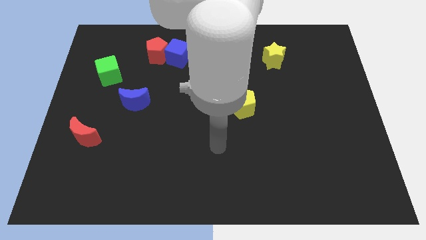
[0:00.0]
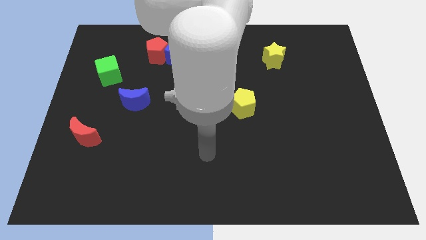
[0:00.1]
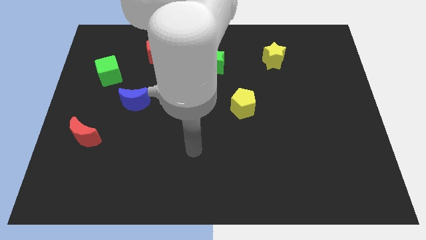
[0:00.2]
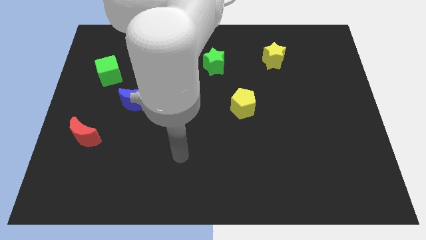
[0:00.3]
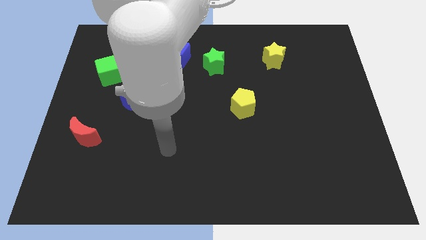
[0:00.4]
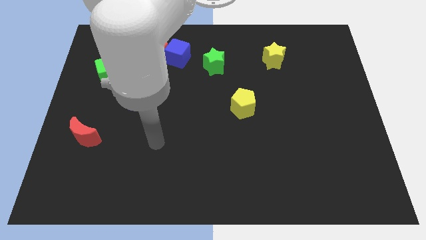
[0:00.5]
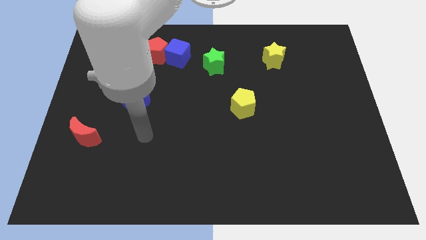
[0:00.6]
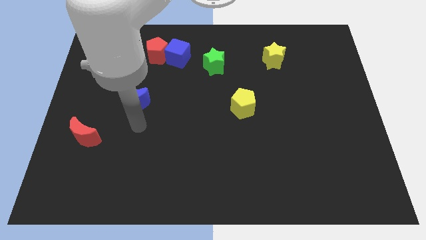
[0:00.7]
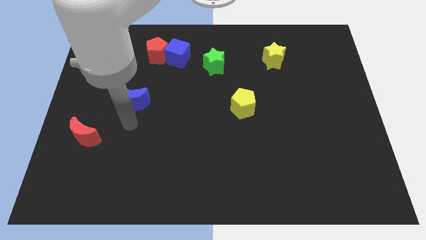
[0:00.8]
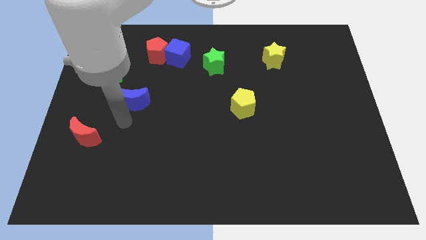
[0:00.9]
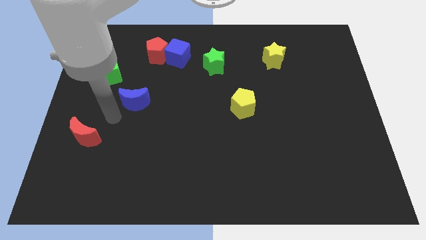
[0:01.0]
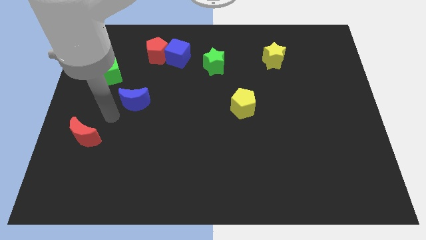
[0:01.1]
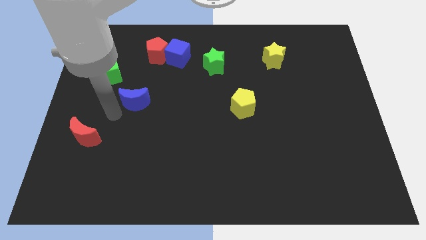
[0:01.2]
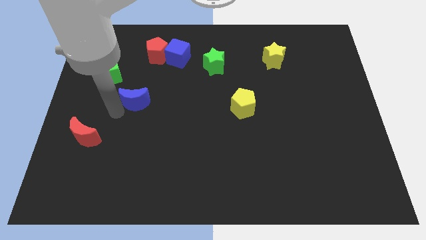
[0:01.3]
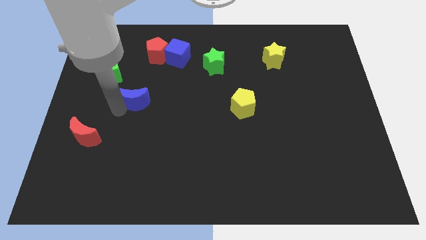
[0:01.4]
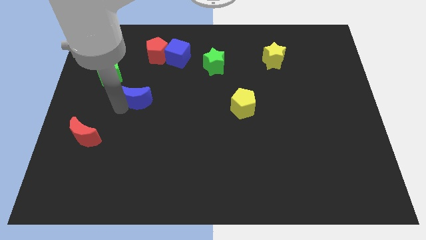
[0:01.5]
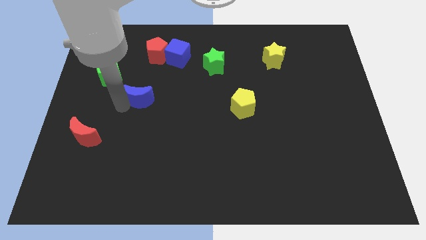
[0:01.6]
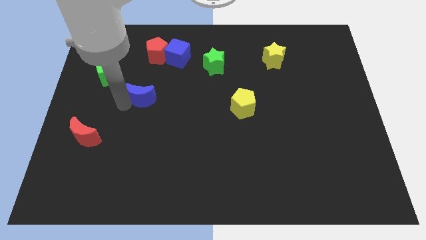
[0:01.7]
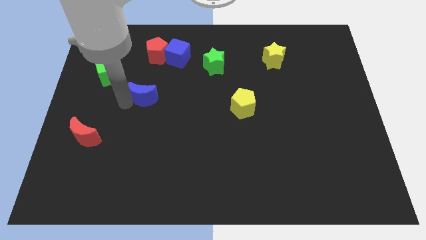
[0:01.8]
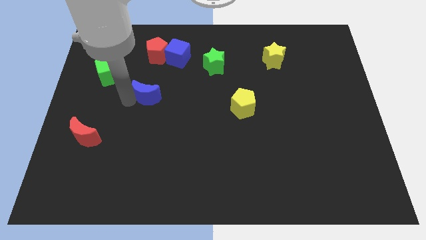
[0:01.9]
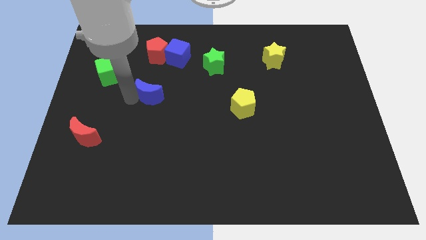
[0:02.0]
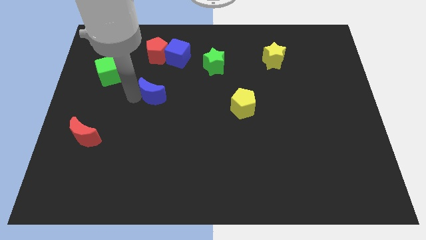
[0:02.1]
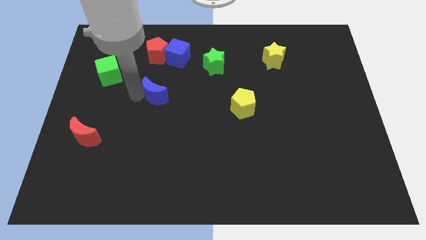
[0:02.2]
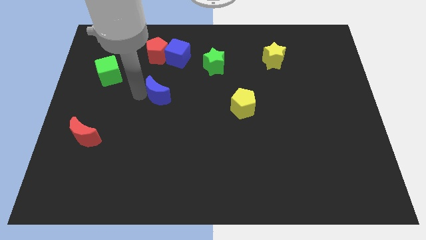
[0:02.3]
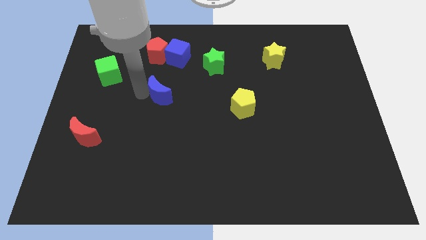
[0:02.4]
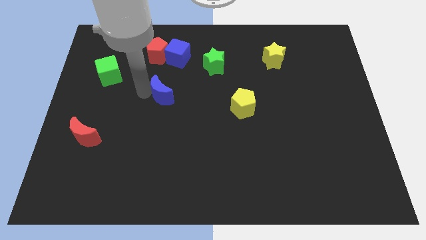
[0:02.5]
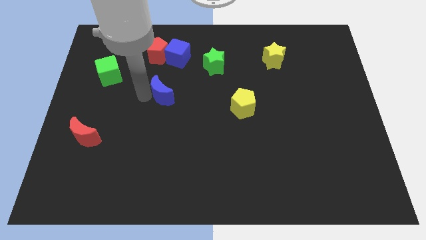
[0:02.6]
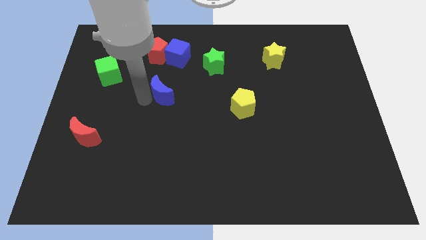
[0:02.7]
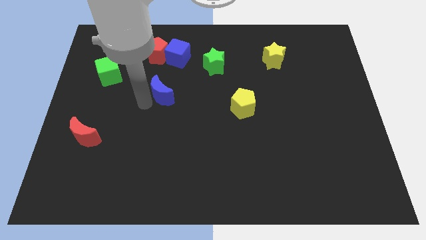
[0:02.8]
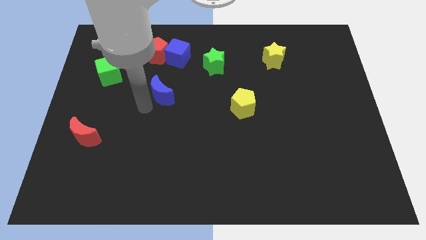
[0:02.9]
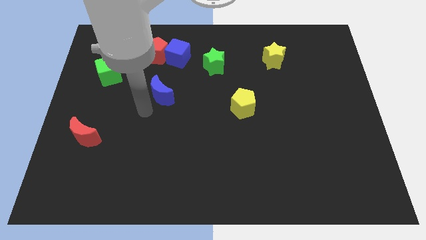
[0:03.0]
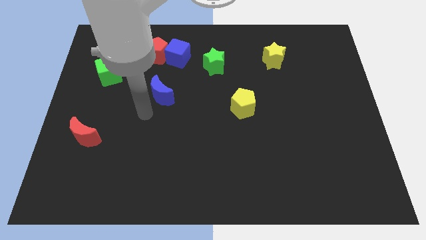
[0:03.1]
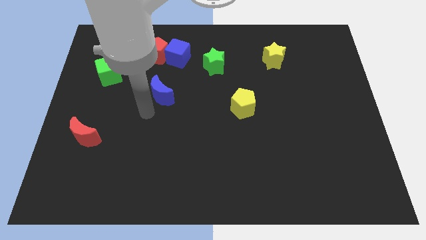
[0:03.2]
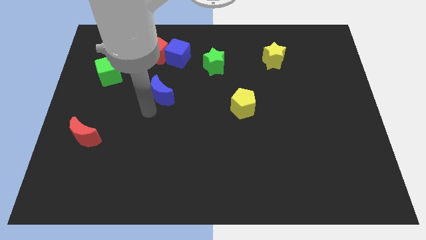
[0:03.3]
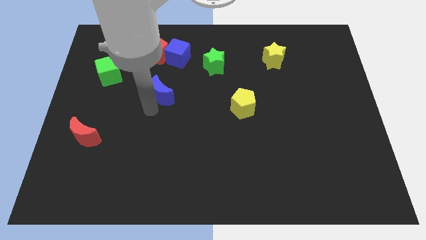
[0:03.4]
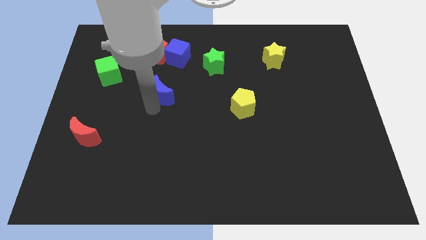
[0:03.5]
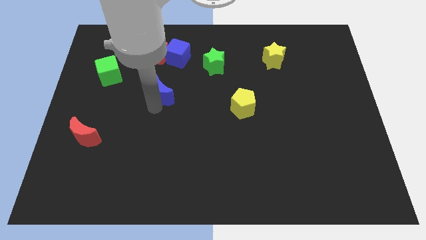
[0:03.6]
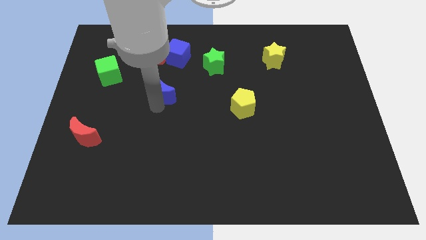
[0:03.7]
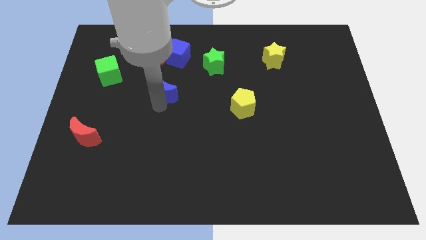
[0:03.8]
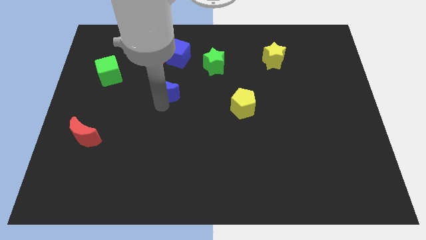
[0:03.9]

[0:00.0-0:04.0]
move the blue moon upwards and then right slightly

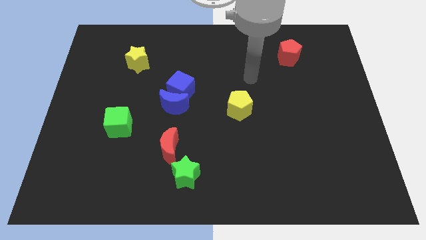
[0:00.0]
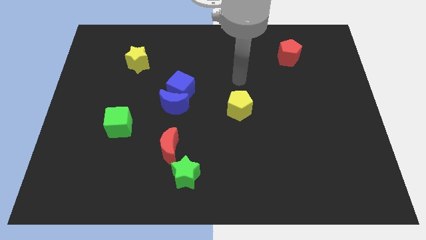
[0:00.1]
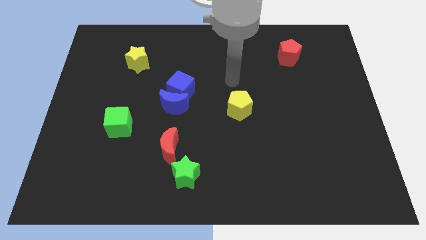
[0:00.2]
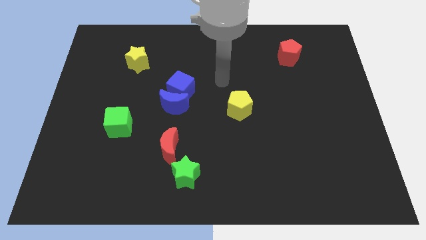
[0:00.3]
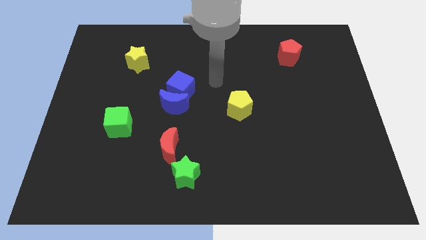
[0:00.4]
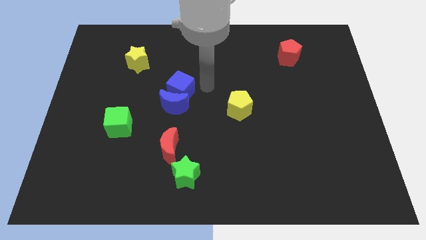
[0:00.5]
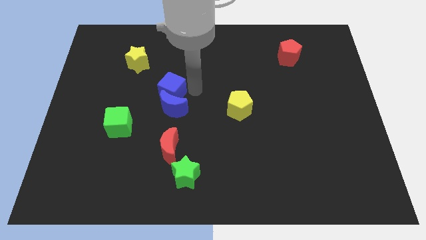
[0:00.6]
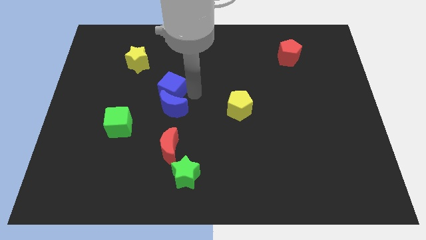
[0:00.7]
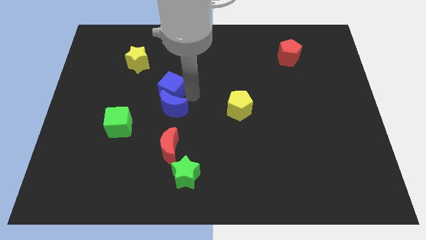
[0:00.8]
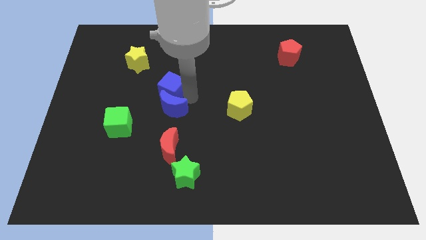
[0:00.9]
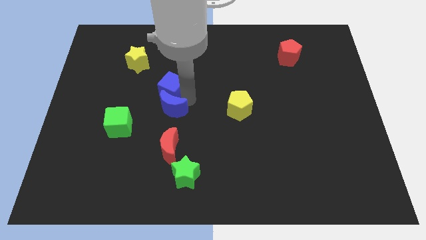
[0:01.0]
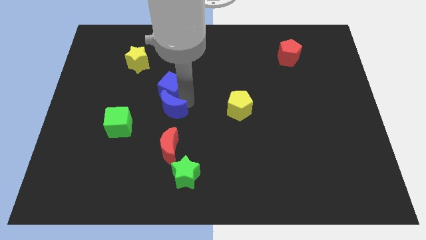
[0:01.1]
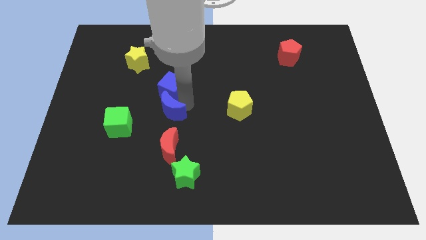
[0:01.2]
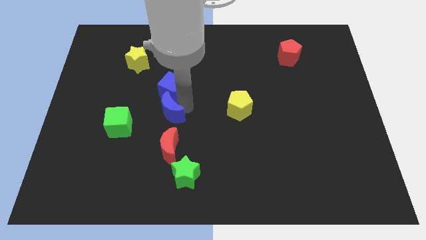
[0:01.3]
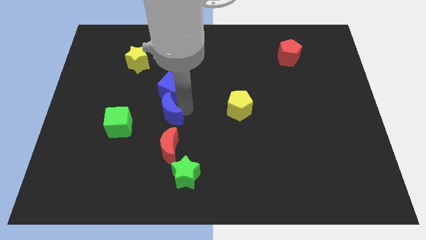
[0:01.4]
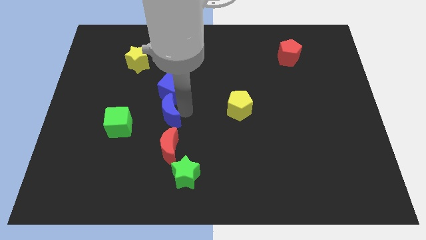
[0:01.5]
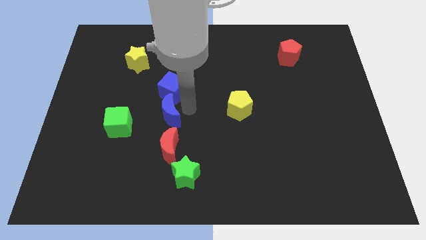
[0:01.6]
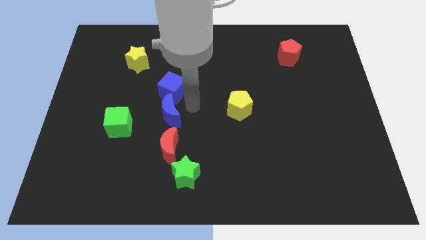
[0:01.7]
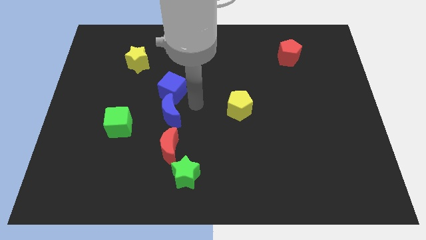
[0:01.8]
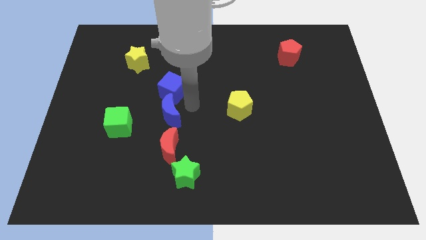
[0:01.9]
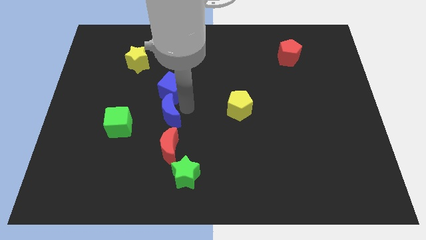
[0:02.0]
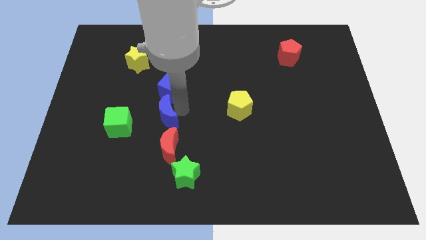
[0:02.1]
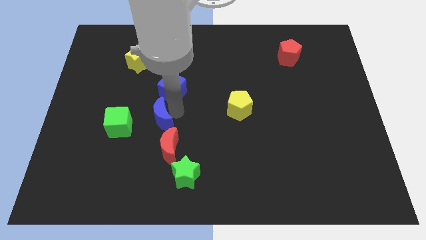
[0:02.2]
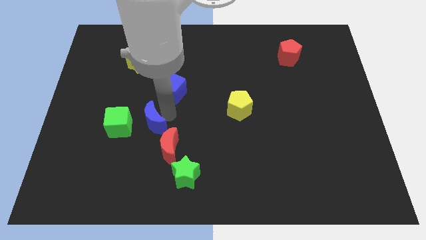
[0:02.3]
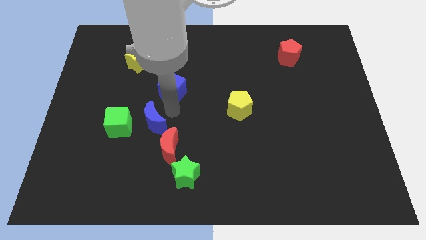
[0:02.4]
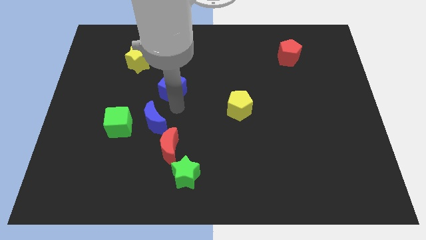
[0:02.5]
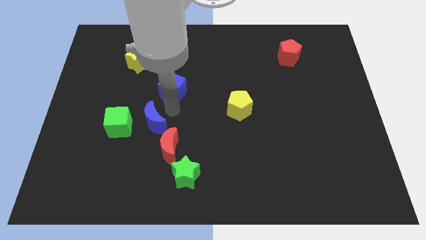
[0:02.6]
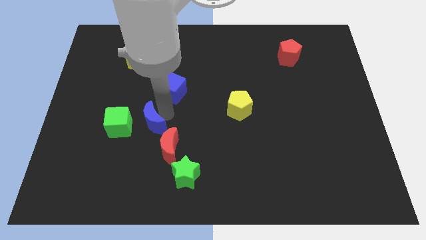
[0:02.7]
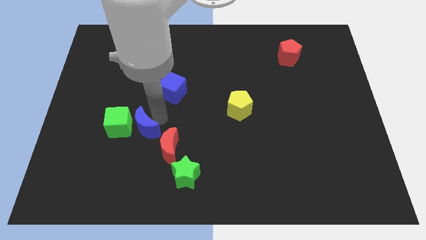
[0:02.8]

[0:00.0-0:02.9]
slightly push the blue moon down and left diagonally

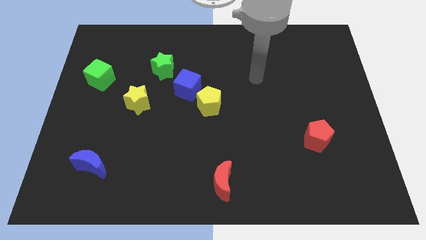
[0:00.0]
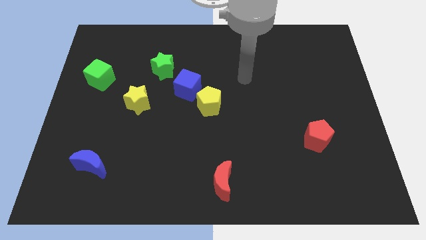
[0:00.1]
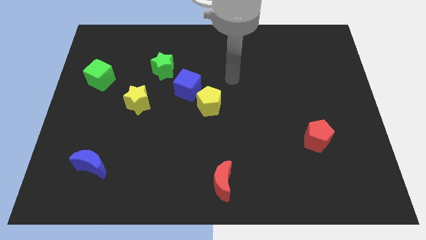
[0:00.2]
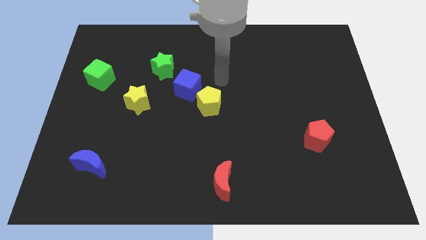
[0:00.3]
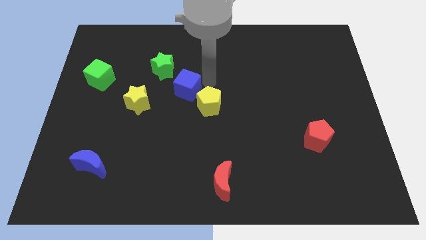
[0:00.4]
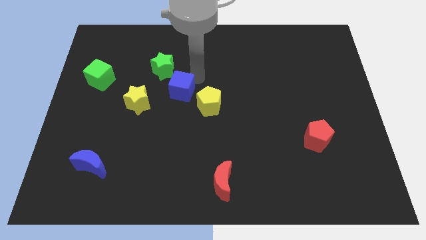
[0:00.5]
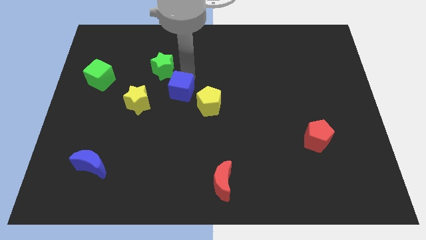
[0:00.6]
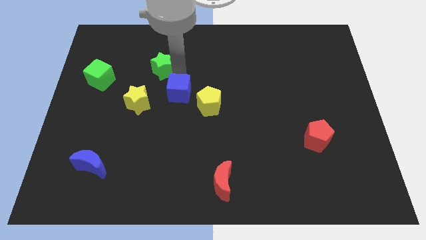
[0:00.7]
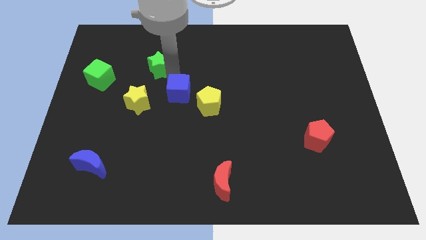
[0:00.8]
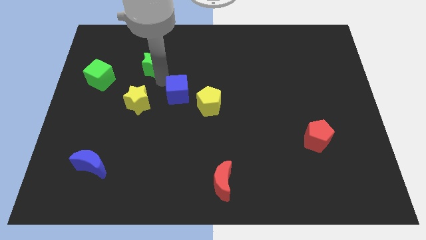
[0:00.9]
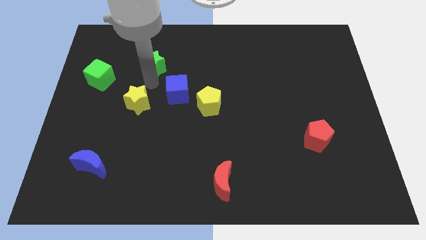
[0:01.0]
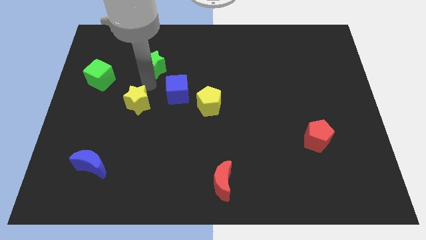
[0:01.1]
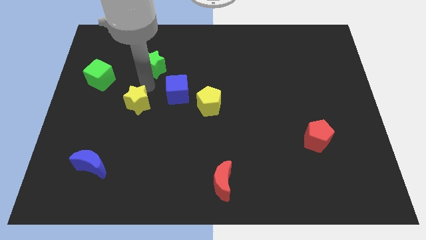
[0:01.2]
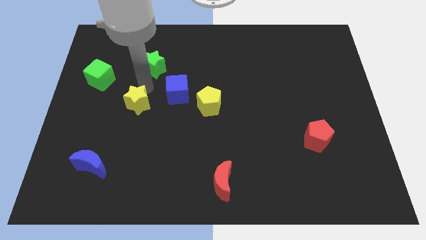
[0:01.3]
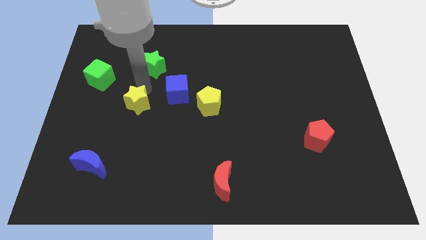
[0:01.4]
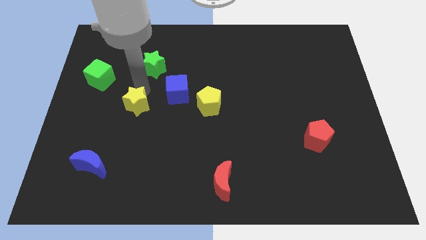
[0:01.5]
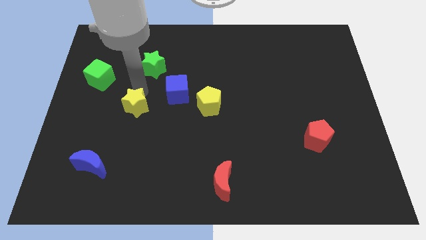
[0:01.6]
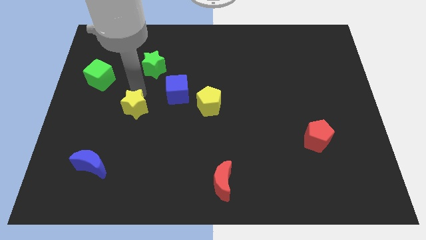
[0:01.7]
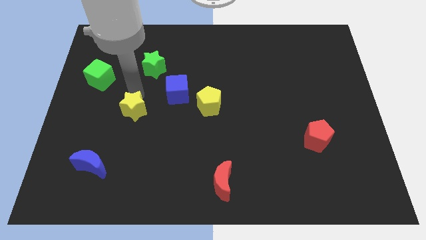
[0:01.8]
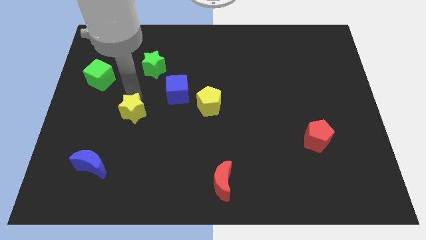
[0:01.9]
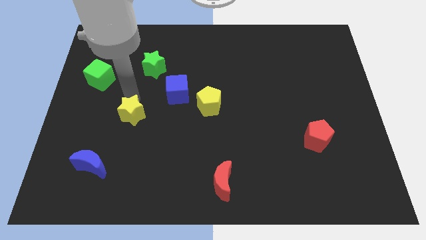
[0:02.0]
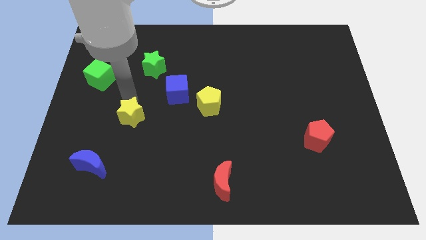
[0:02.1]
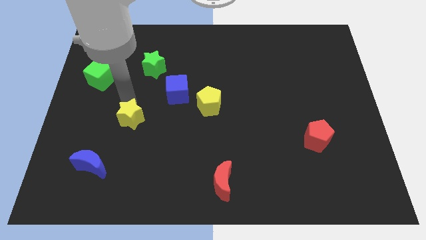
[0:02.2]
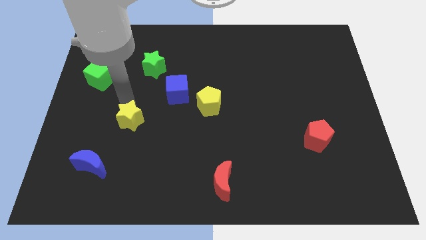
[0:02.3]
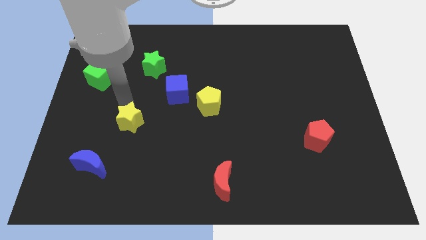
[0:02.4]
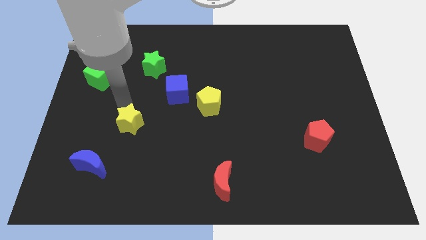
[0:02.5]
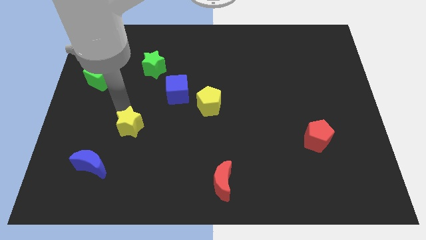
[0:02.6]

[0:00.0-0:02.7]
slightly push the yellow star downwards
